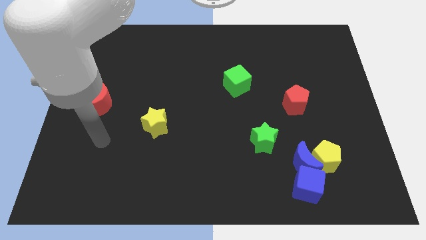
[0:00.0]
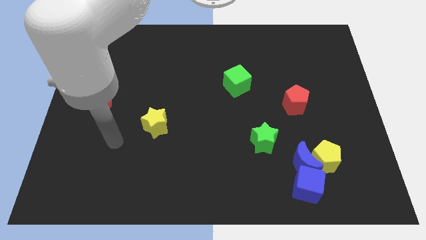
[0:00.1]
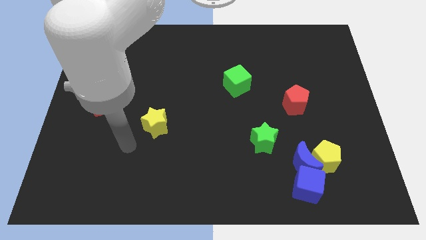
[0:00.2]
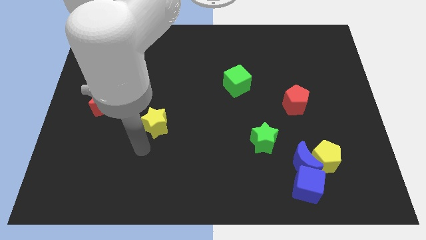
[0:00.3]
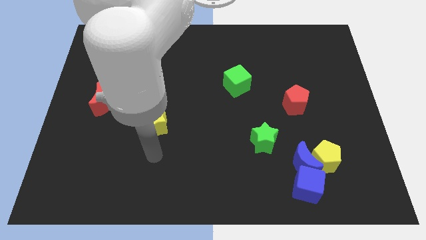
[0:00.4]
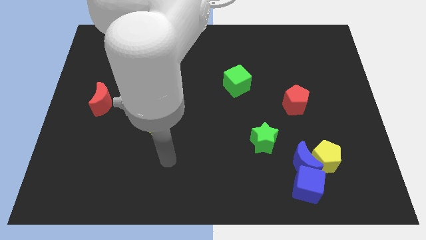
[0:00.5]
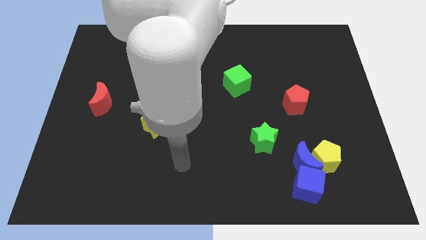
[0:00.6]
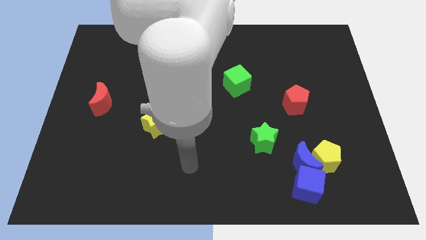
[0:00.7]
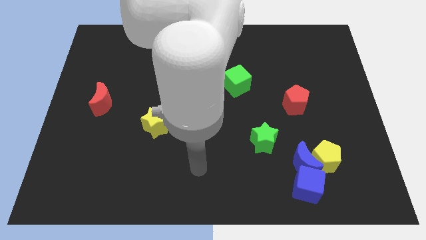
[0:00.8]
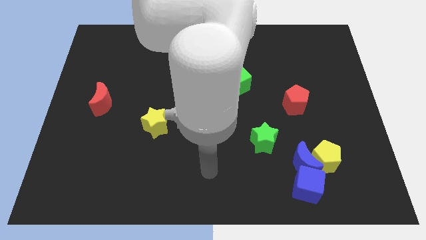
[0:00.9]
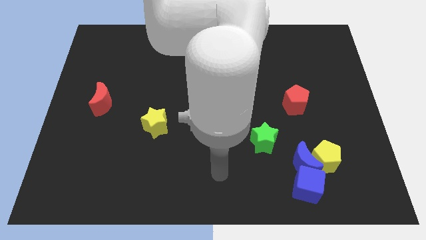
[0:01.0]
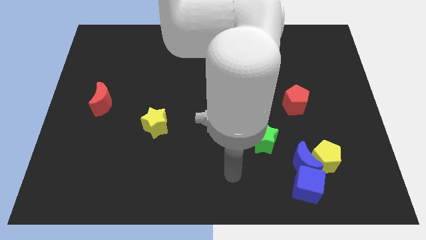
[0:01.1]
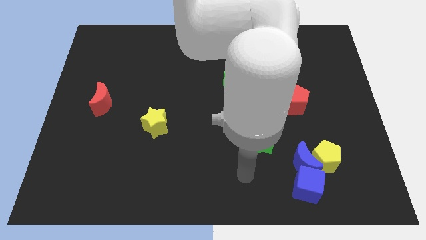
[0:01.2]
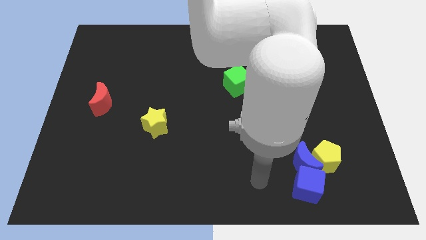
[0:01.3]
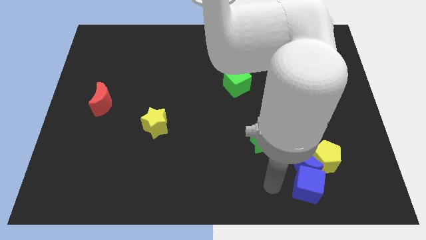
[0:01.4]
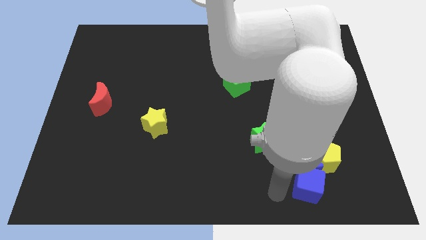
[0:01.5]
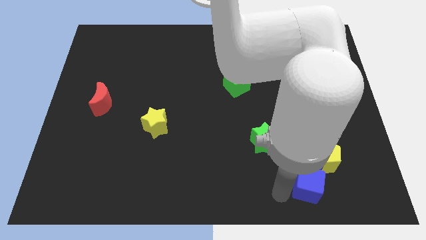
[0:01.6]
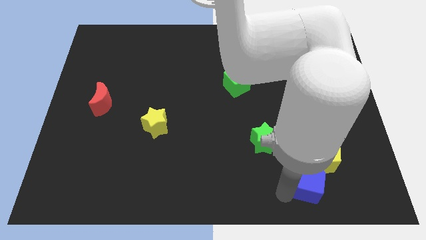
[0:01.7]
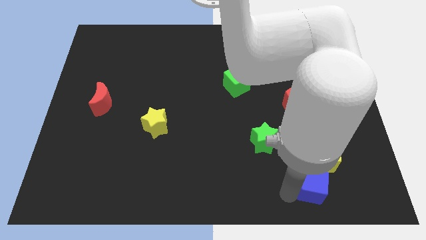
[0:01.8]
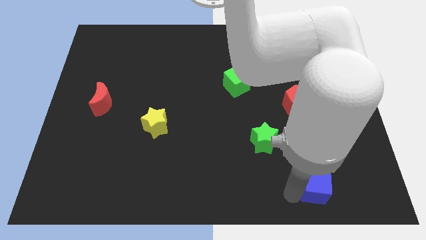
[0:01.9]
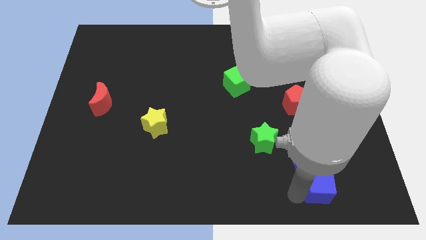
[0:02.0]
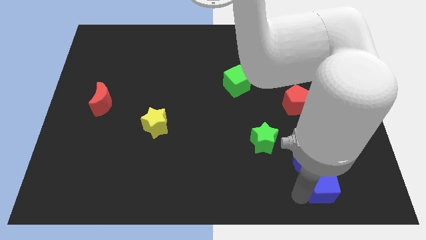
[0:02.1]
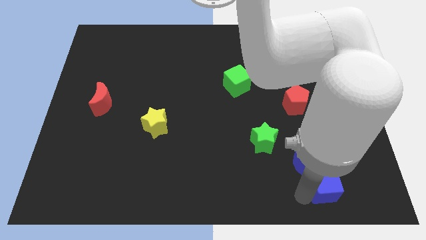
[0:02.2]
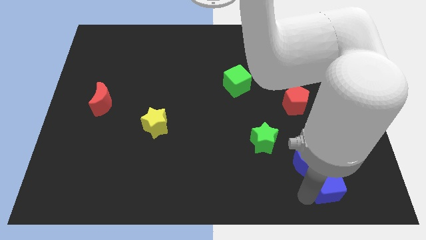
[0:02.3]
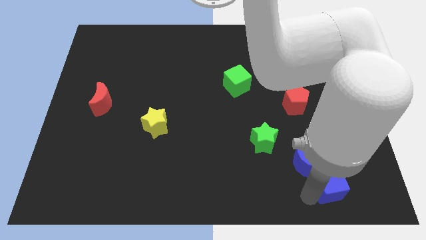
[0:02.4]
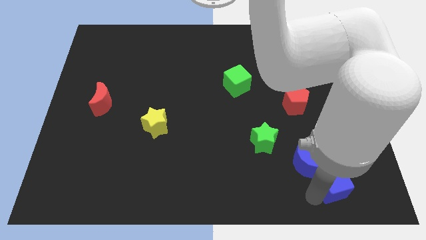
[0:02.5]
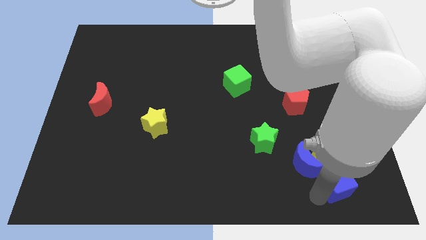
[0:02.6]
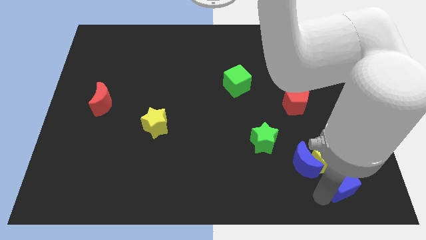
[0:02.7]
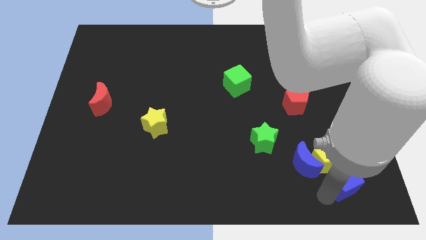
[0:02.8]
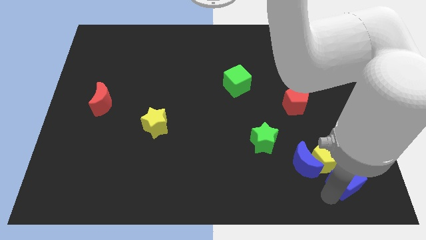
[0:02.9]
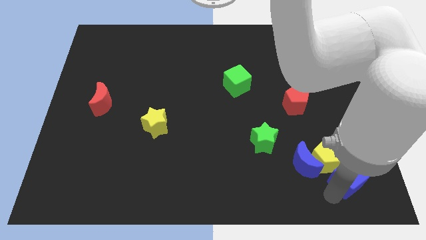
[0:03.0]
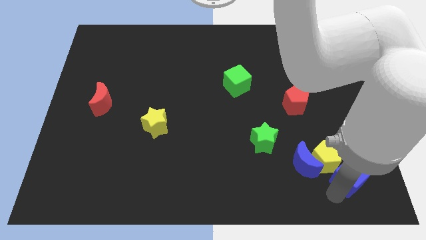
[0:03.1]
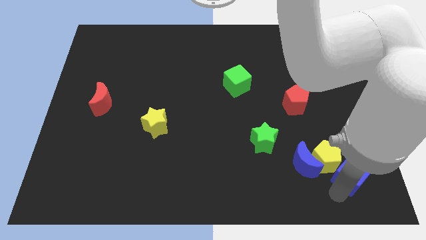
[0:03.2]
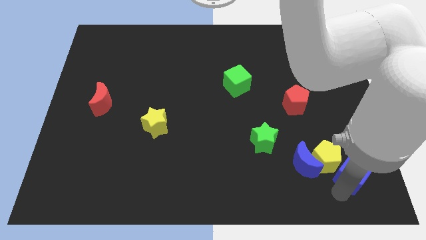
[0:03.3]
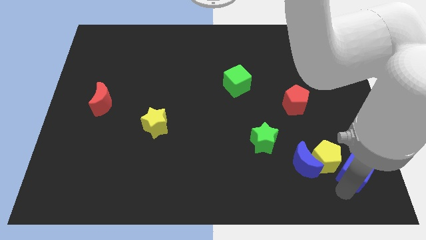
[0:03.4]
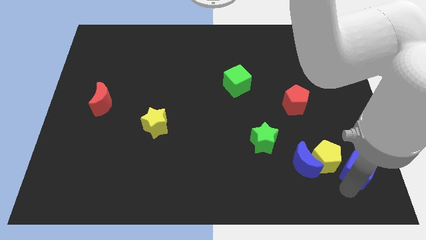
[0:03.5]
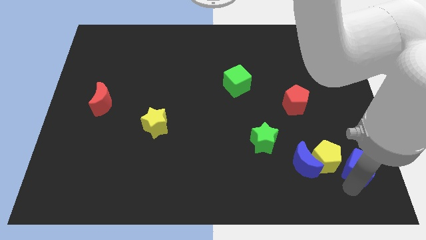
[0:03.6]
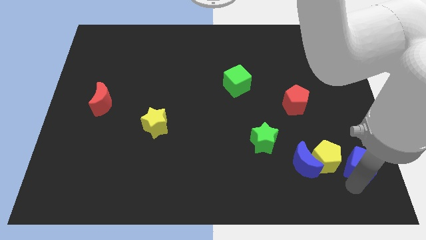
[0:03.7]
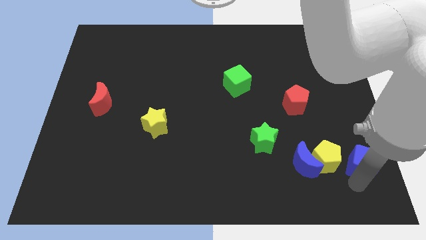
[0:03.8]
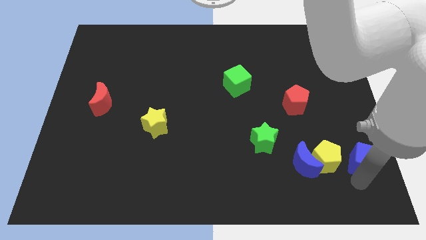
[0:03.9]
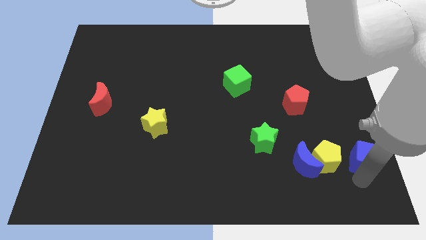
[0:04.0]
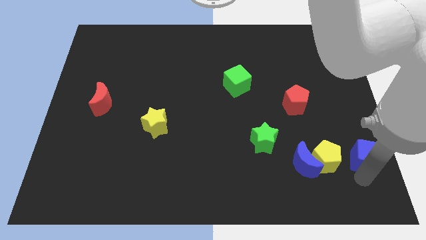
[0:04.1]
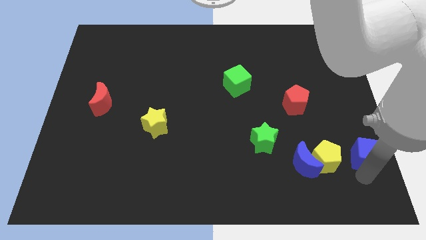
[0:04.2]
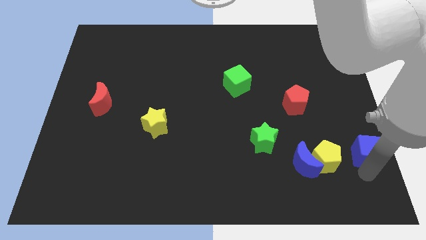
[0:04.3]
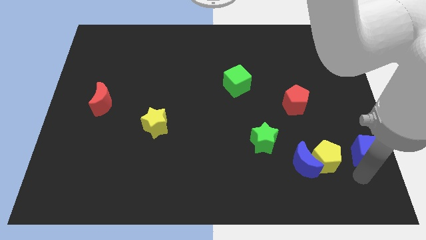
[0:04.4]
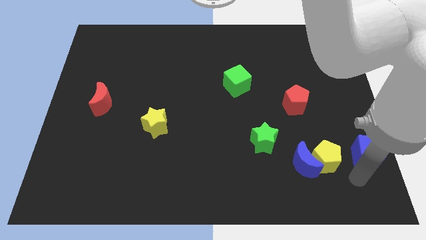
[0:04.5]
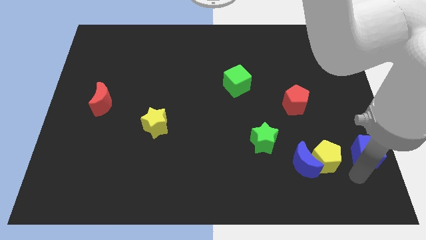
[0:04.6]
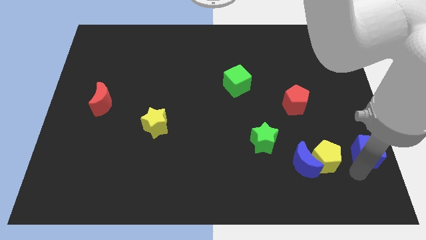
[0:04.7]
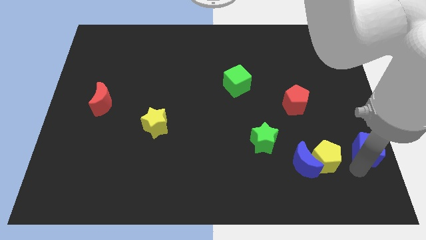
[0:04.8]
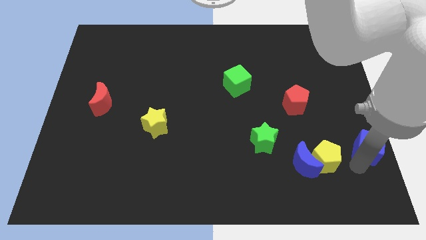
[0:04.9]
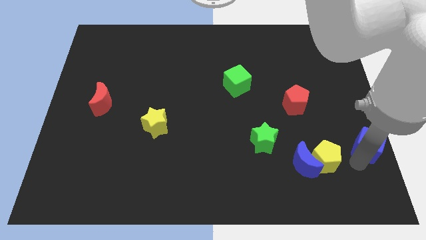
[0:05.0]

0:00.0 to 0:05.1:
push the blue cube to the center right

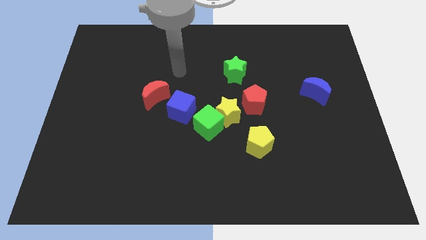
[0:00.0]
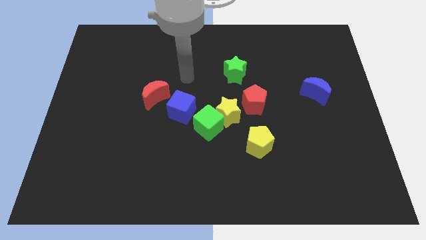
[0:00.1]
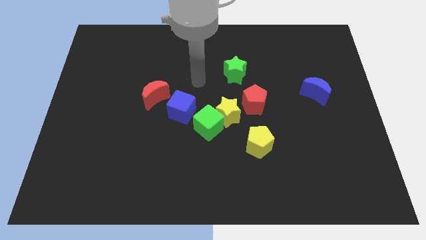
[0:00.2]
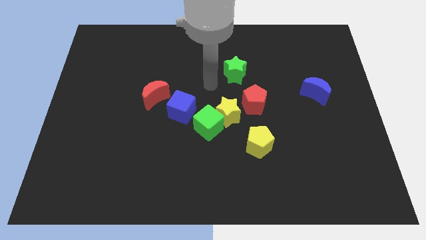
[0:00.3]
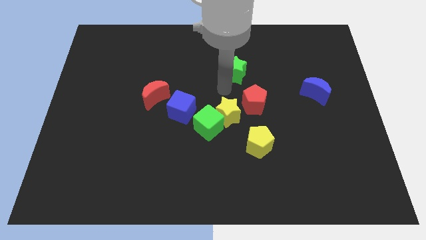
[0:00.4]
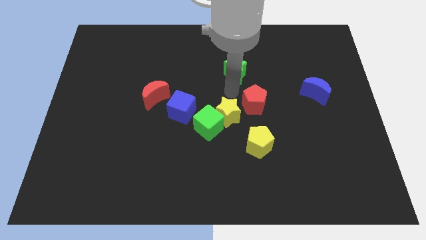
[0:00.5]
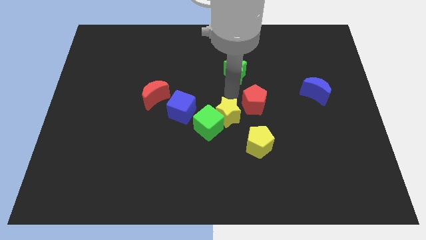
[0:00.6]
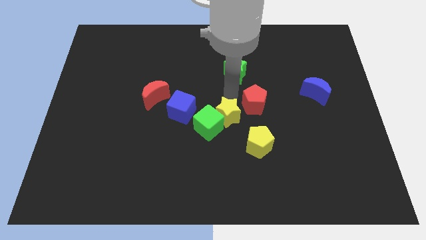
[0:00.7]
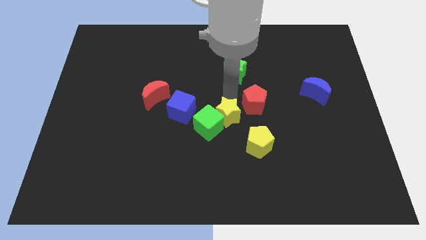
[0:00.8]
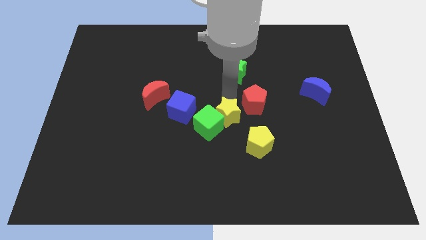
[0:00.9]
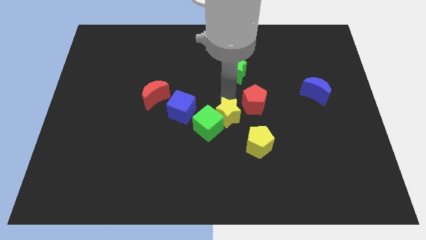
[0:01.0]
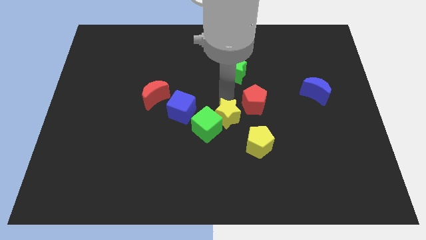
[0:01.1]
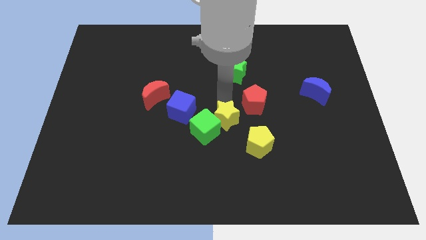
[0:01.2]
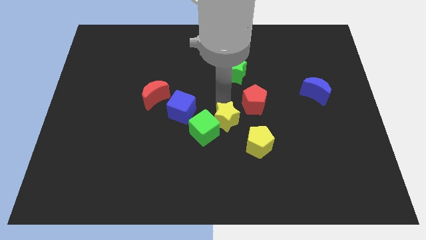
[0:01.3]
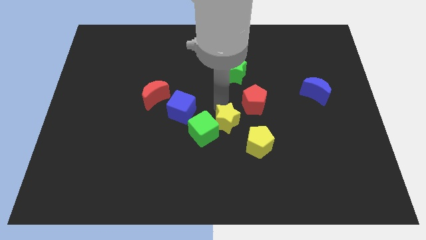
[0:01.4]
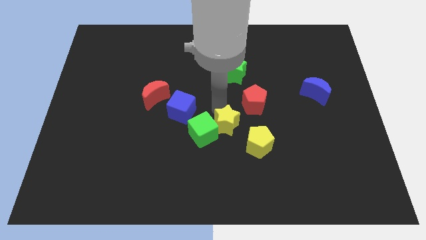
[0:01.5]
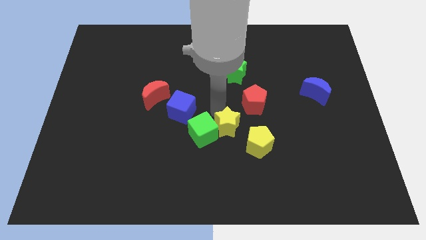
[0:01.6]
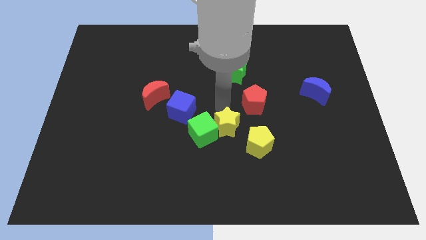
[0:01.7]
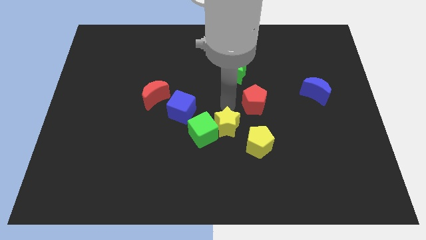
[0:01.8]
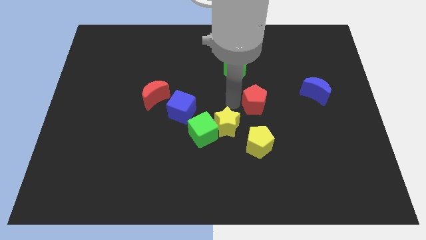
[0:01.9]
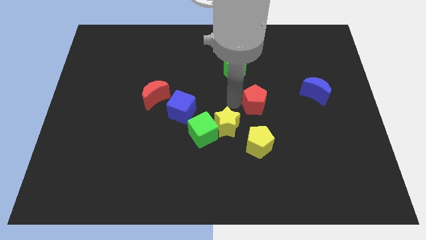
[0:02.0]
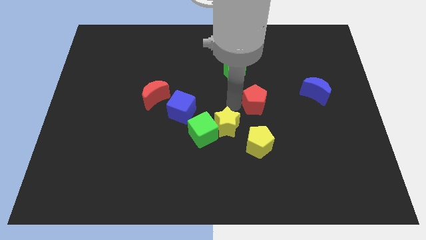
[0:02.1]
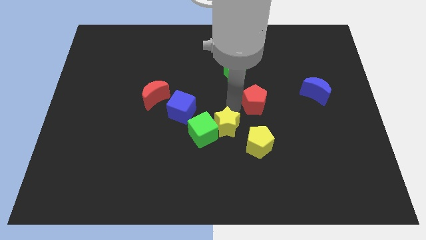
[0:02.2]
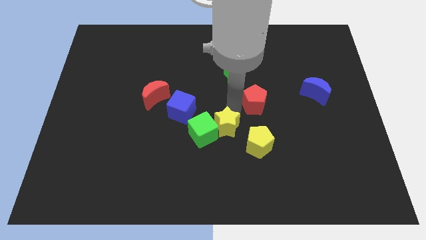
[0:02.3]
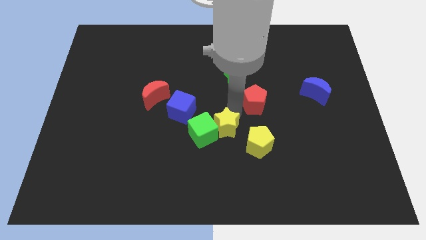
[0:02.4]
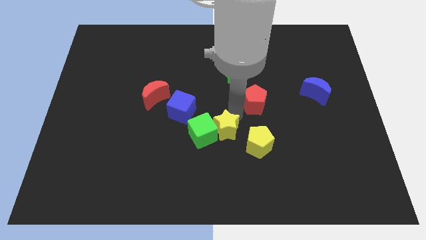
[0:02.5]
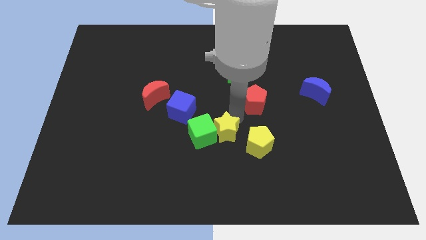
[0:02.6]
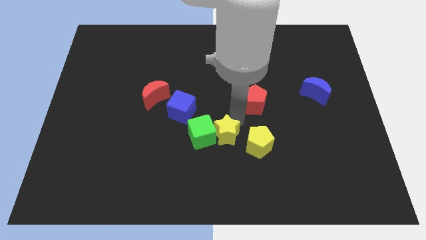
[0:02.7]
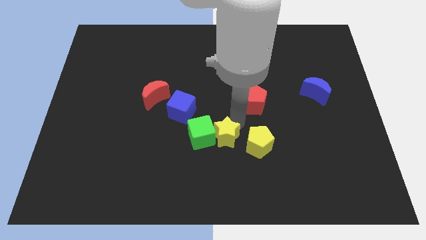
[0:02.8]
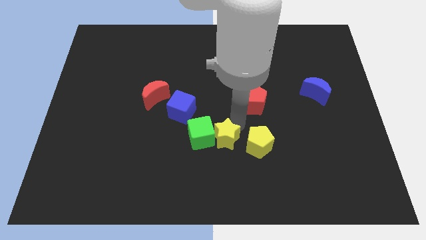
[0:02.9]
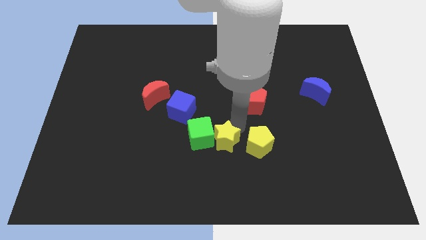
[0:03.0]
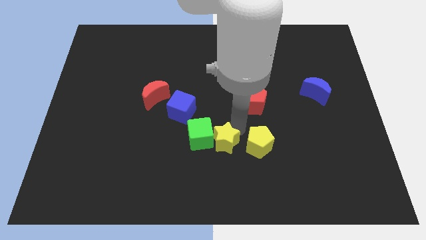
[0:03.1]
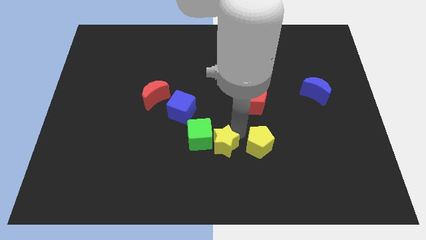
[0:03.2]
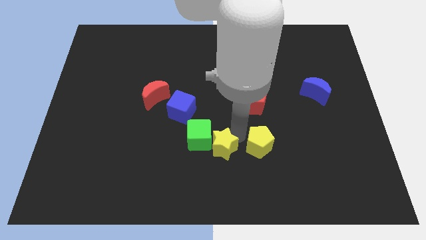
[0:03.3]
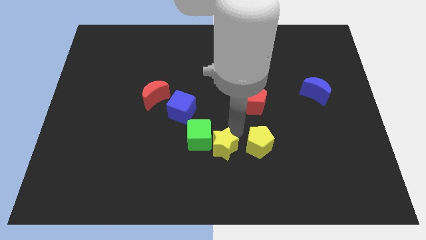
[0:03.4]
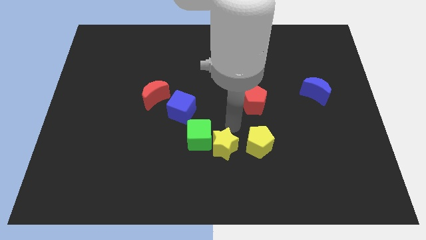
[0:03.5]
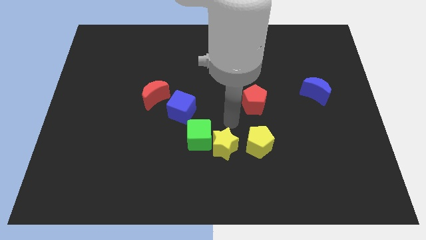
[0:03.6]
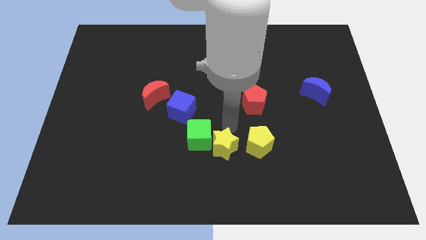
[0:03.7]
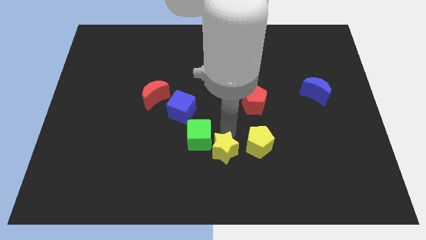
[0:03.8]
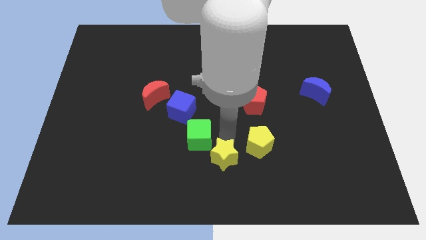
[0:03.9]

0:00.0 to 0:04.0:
slide the yellow star to the bottom side
